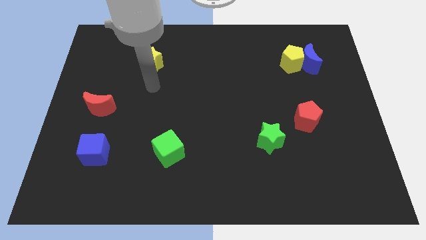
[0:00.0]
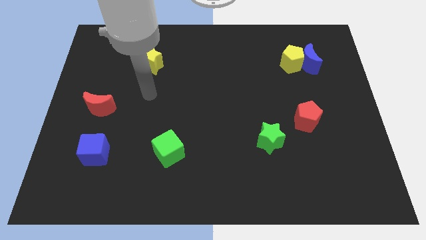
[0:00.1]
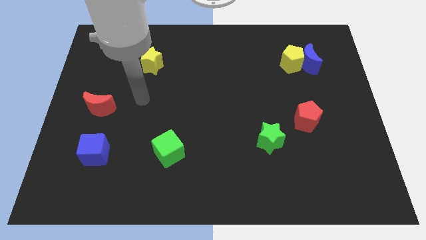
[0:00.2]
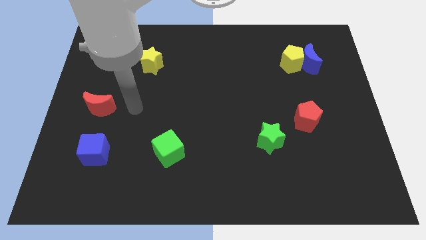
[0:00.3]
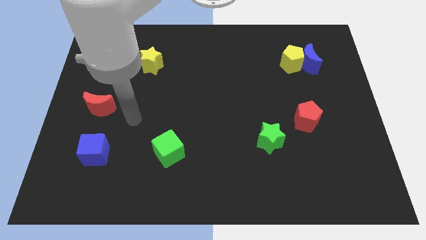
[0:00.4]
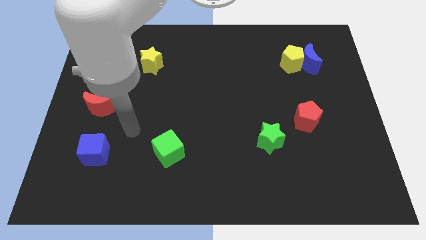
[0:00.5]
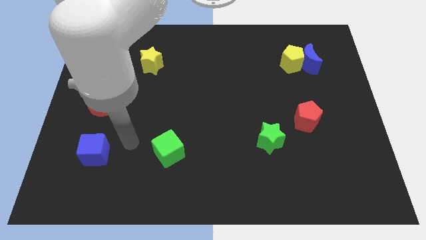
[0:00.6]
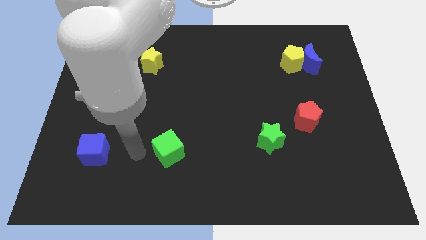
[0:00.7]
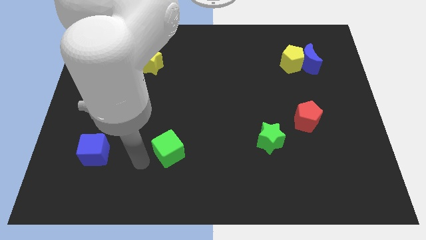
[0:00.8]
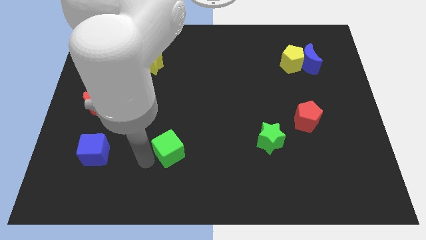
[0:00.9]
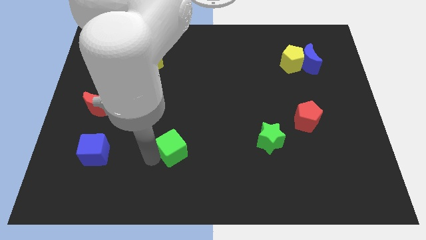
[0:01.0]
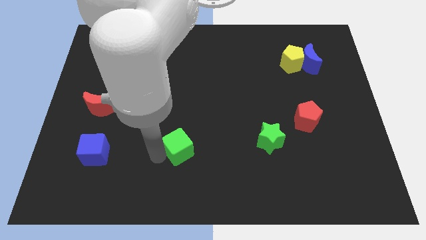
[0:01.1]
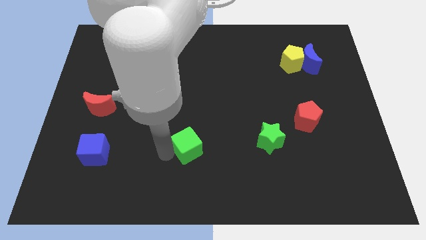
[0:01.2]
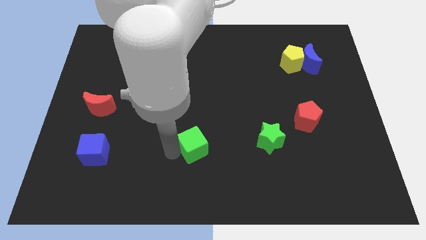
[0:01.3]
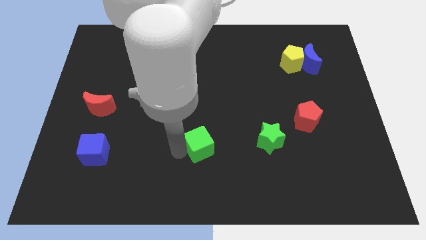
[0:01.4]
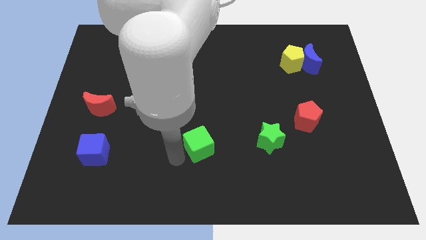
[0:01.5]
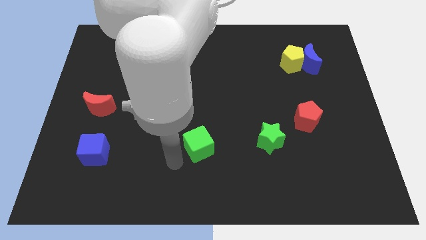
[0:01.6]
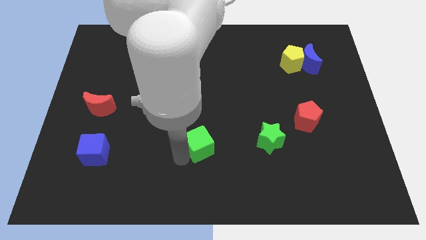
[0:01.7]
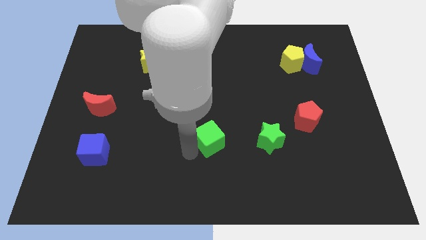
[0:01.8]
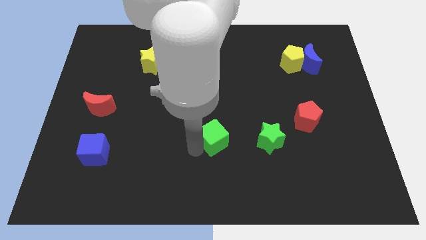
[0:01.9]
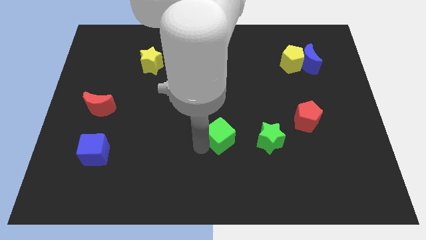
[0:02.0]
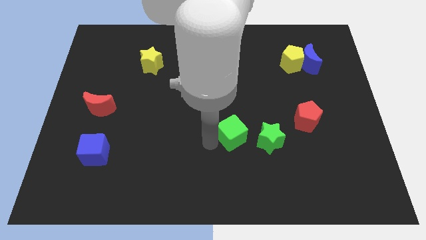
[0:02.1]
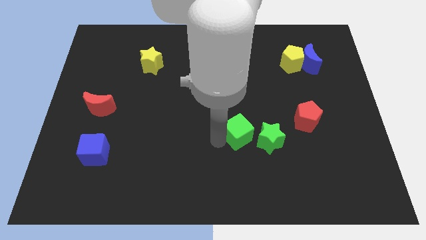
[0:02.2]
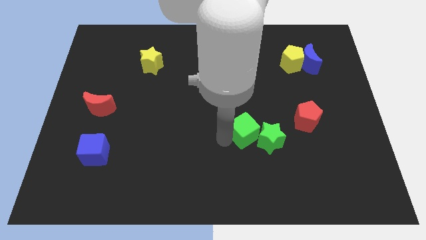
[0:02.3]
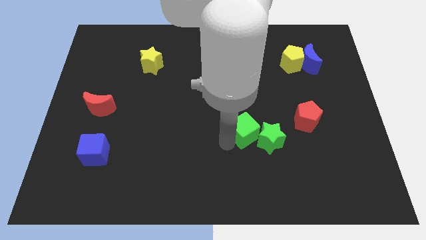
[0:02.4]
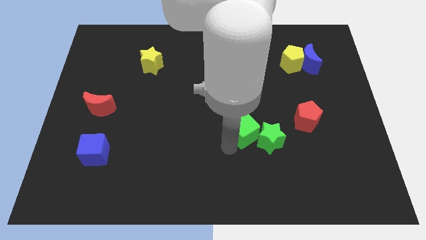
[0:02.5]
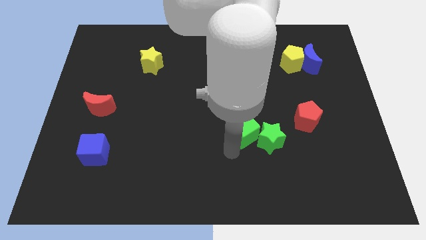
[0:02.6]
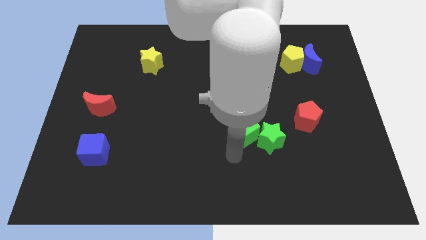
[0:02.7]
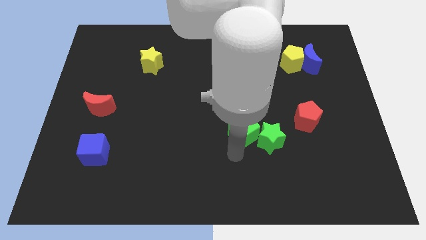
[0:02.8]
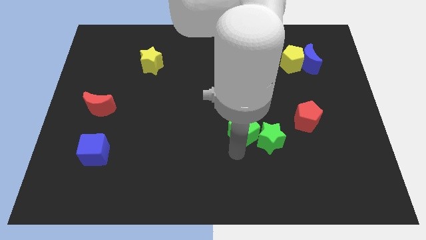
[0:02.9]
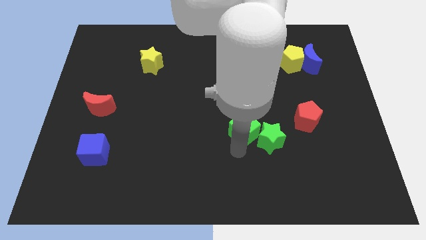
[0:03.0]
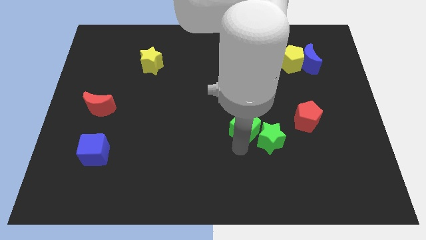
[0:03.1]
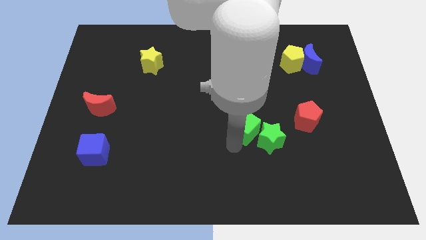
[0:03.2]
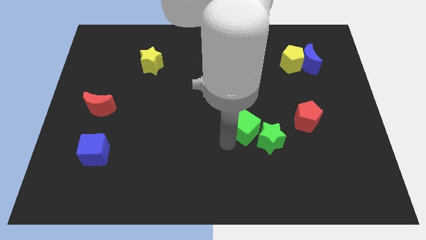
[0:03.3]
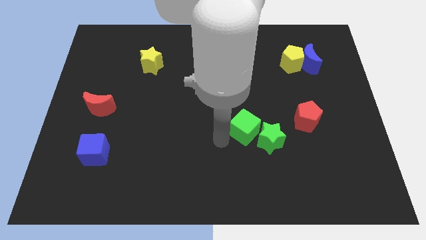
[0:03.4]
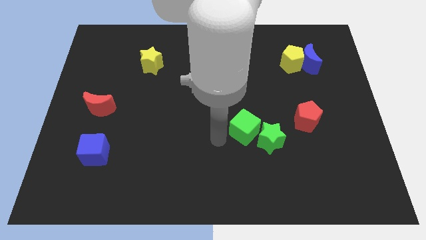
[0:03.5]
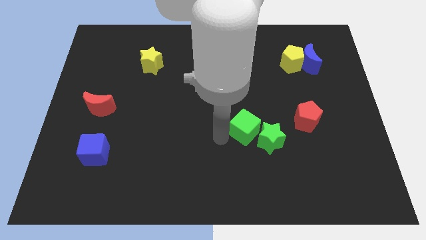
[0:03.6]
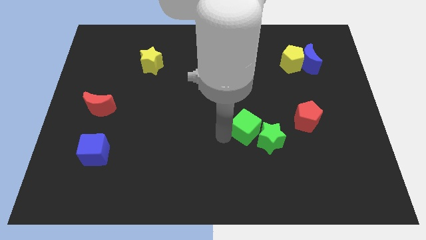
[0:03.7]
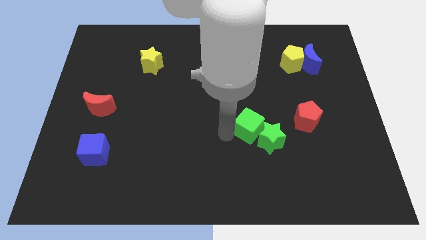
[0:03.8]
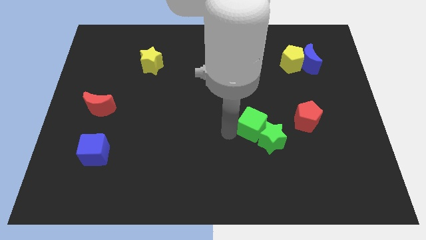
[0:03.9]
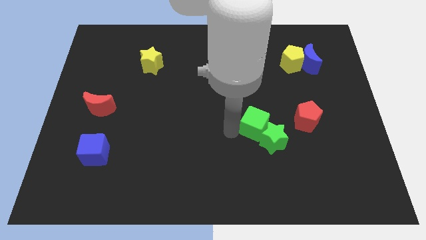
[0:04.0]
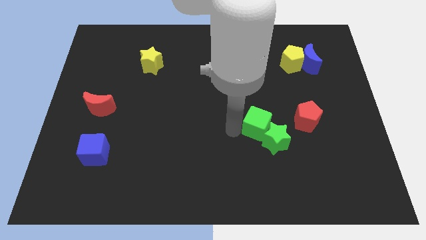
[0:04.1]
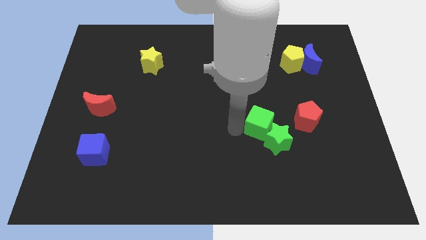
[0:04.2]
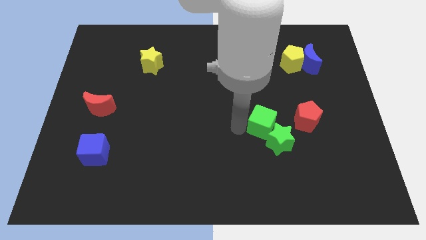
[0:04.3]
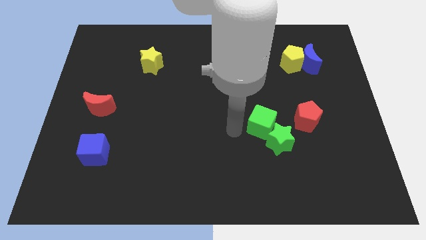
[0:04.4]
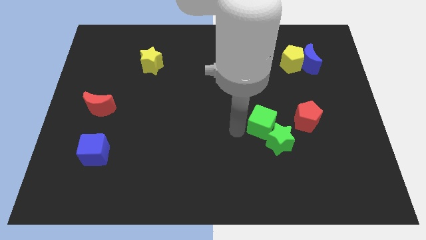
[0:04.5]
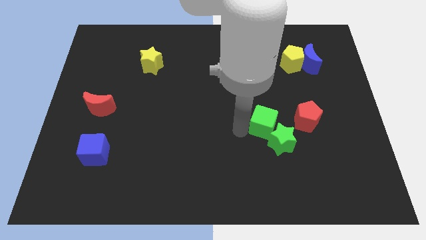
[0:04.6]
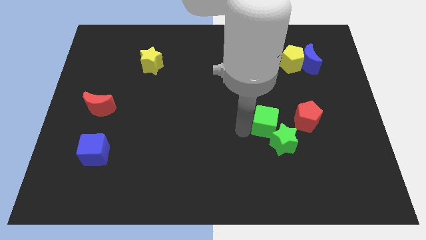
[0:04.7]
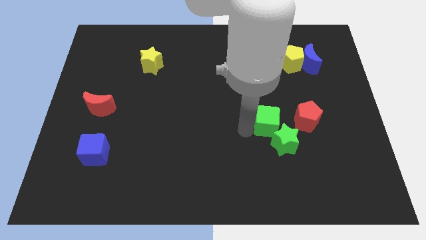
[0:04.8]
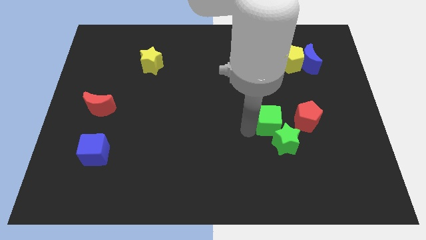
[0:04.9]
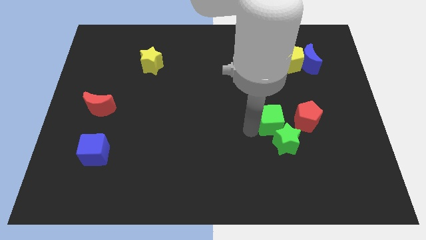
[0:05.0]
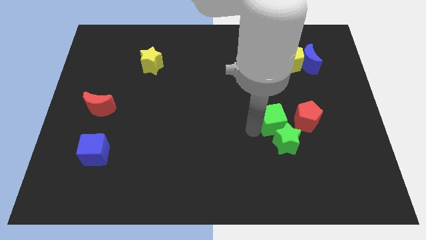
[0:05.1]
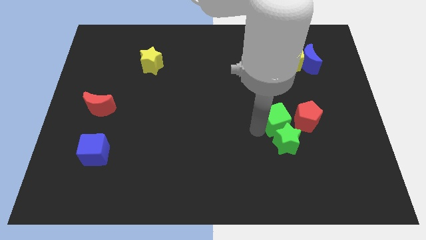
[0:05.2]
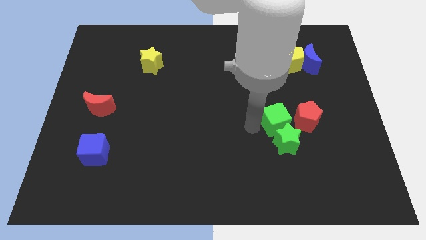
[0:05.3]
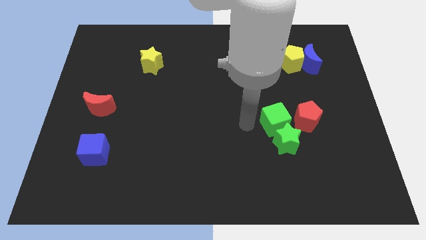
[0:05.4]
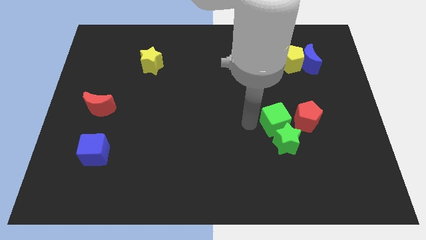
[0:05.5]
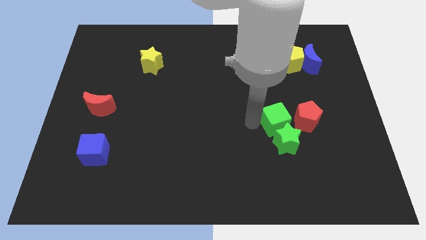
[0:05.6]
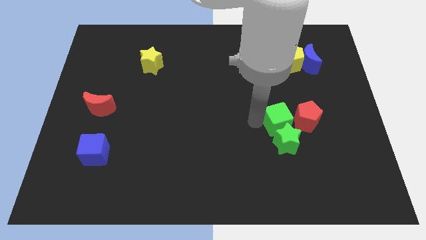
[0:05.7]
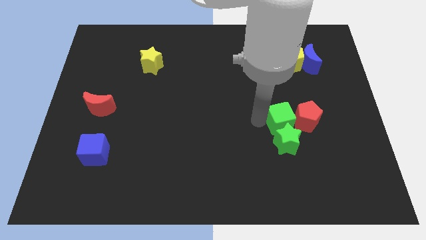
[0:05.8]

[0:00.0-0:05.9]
put the green cube close to the red pentagon

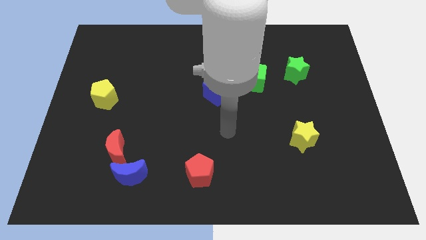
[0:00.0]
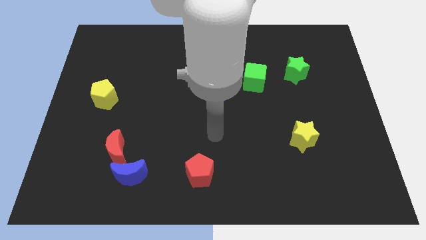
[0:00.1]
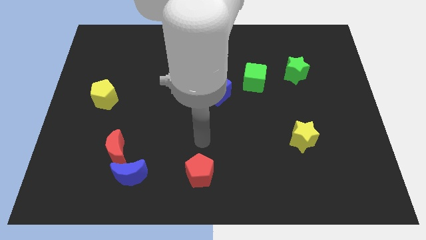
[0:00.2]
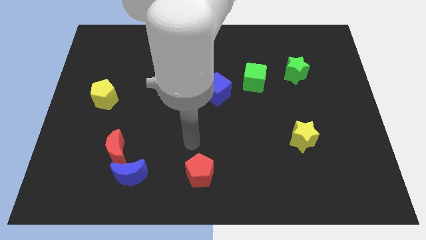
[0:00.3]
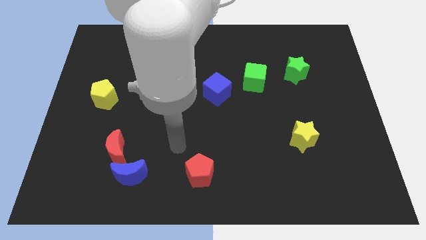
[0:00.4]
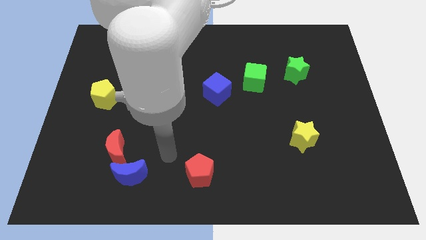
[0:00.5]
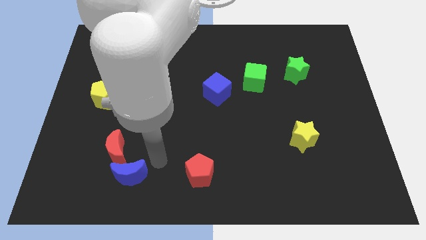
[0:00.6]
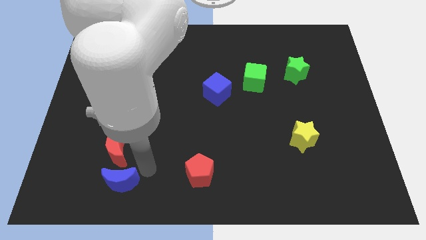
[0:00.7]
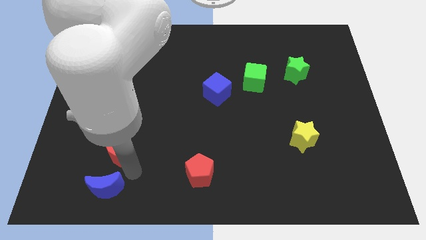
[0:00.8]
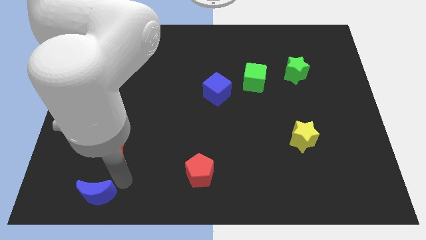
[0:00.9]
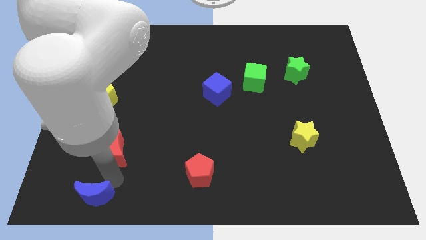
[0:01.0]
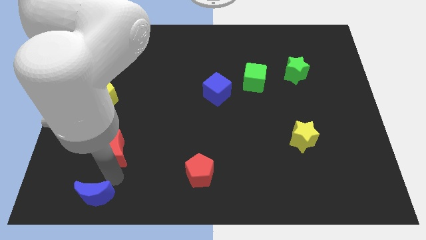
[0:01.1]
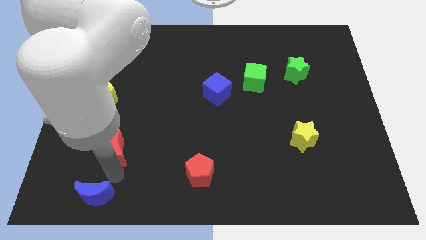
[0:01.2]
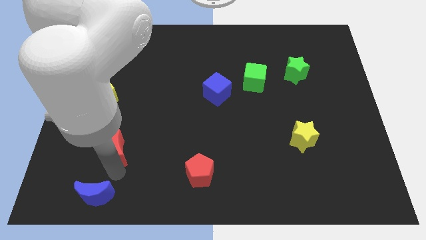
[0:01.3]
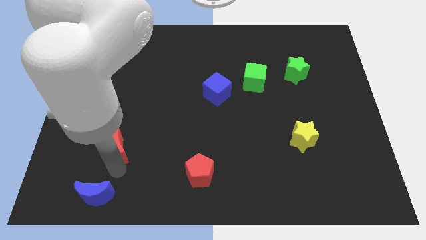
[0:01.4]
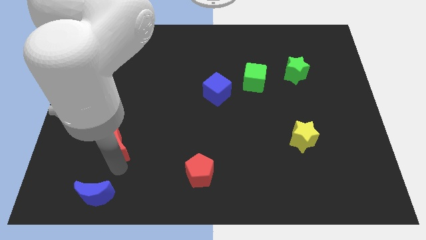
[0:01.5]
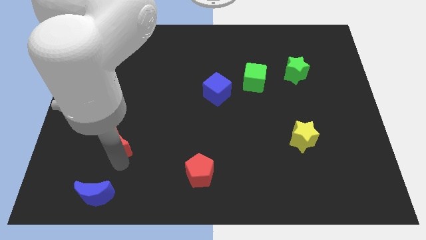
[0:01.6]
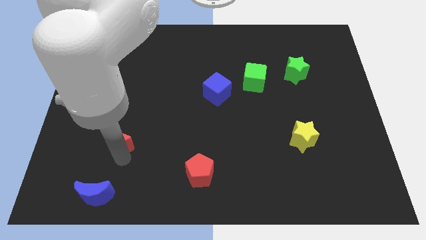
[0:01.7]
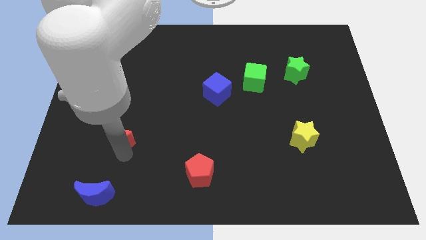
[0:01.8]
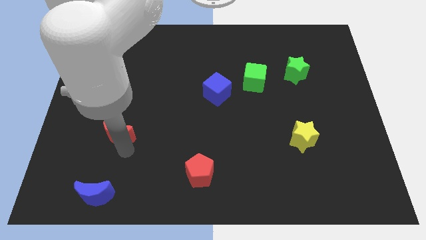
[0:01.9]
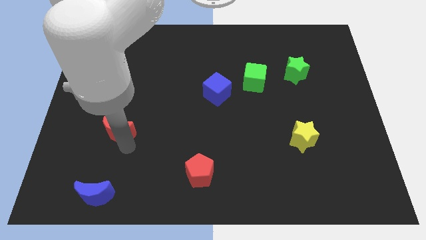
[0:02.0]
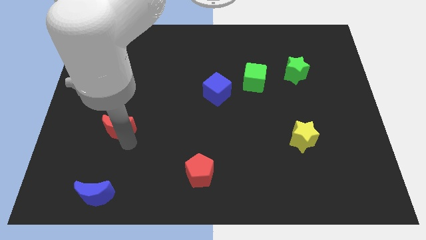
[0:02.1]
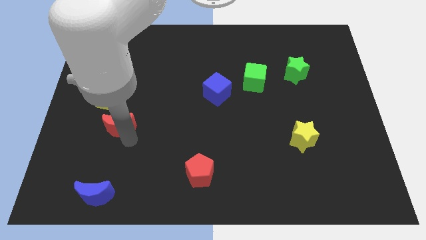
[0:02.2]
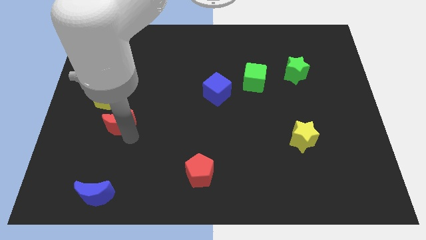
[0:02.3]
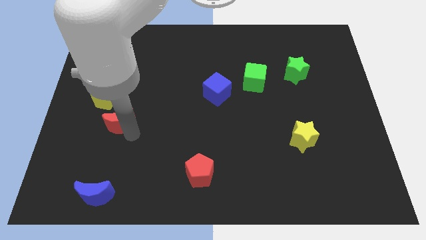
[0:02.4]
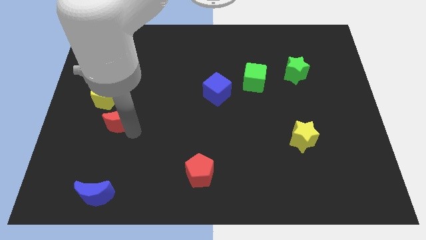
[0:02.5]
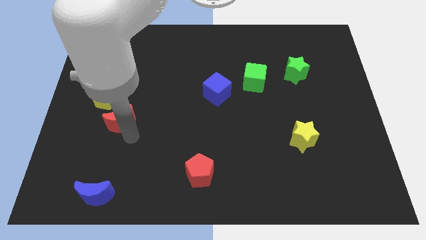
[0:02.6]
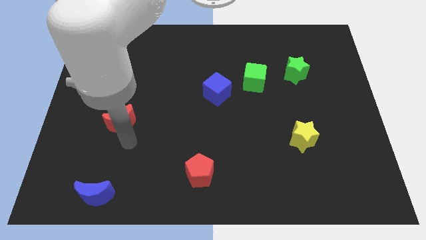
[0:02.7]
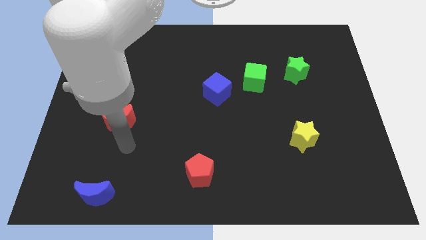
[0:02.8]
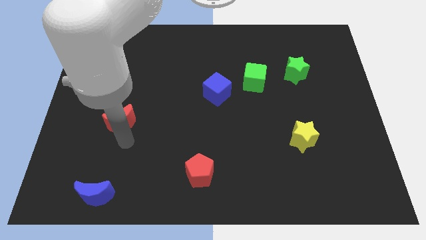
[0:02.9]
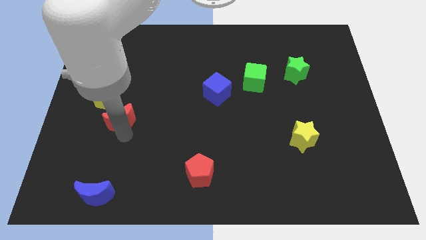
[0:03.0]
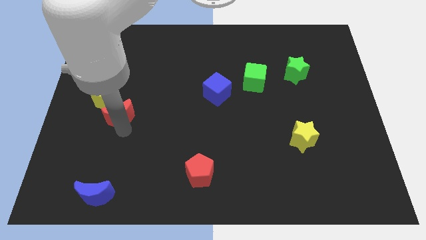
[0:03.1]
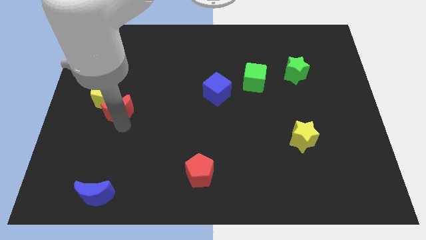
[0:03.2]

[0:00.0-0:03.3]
move the red moon close to the yellow pentagon
